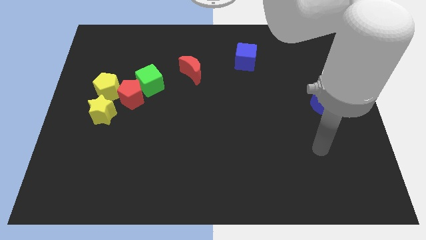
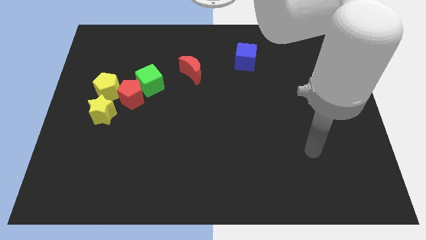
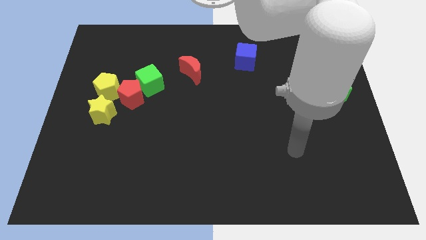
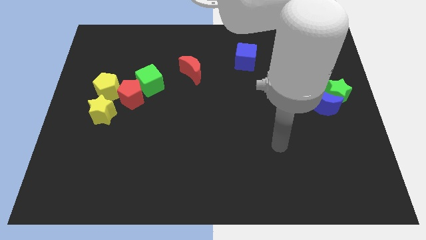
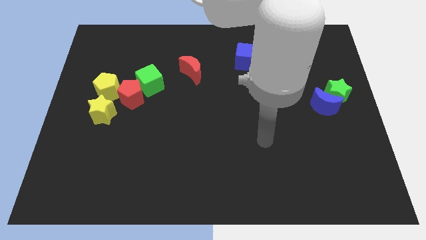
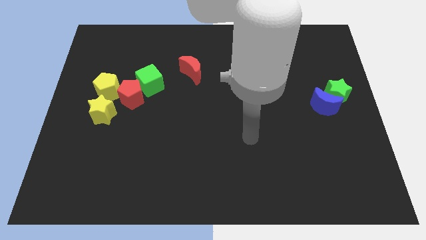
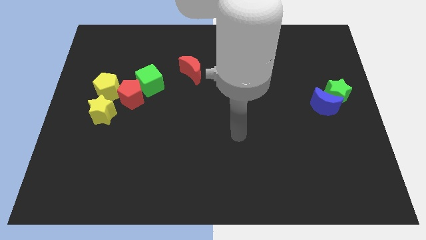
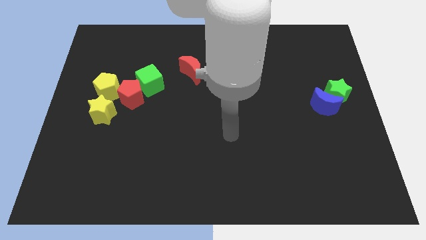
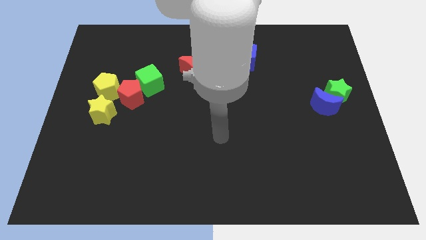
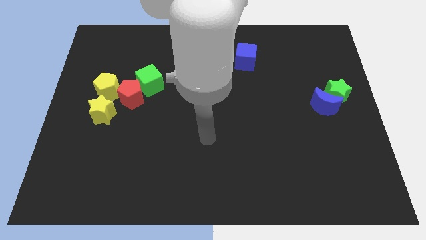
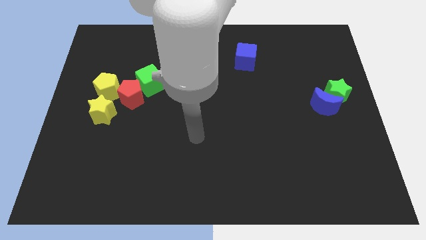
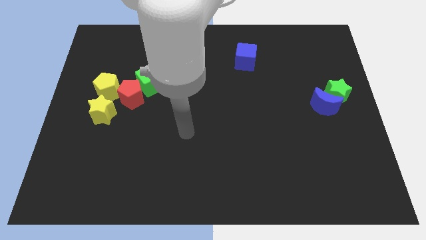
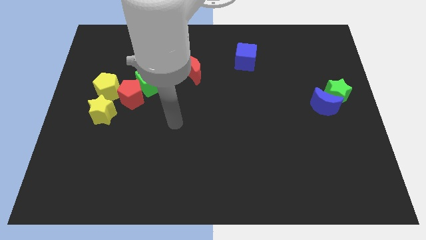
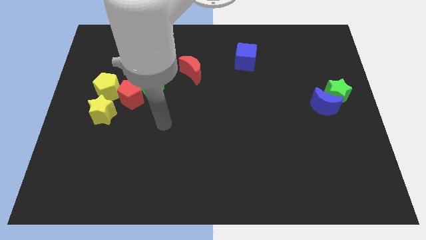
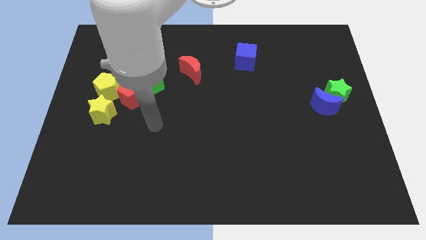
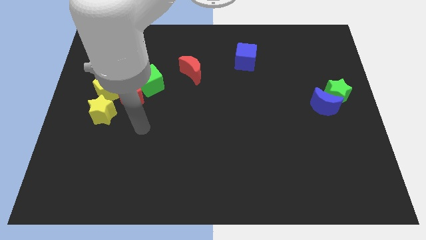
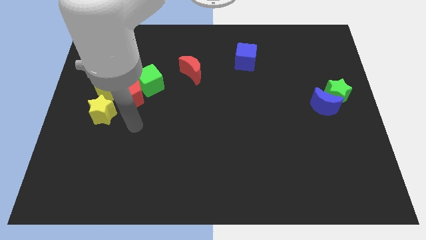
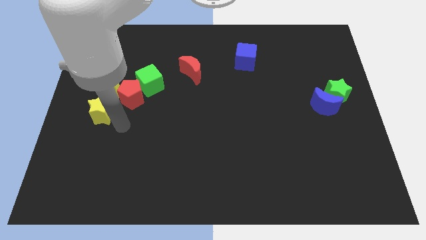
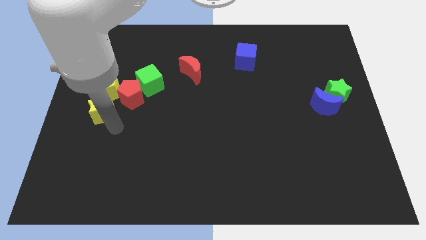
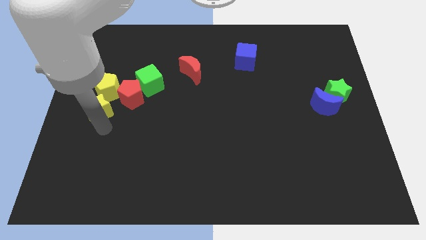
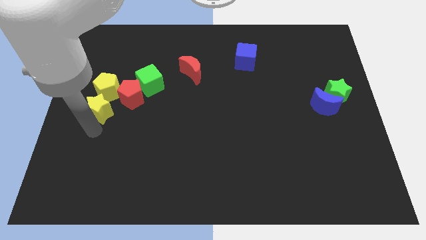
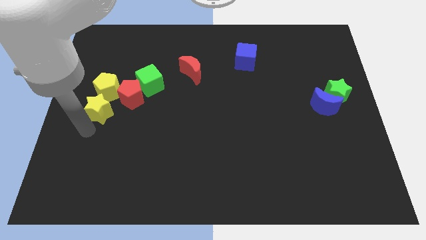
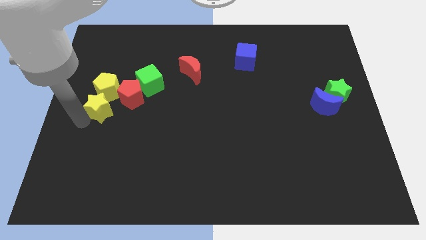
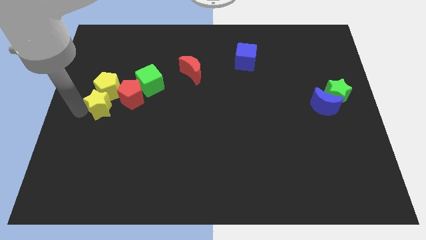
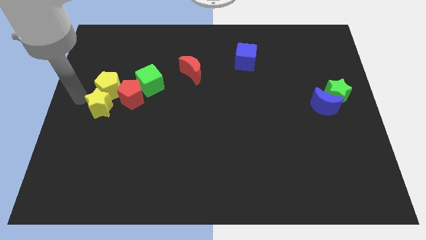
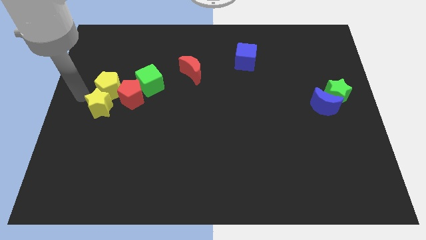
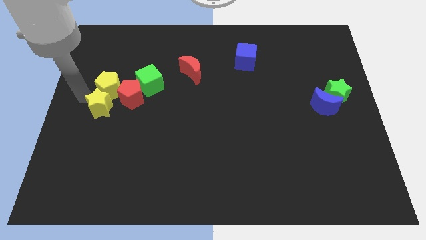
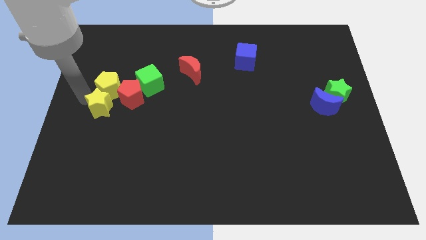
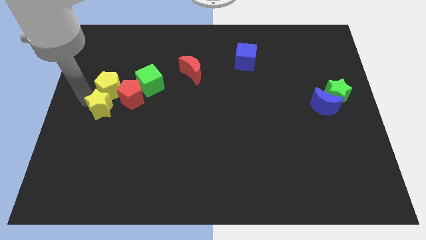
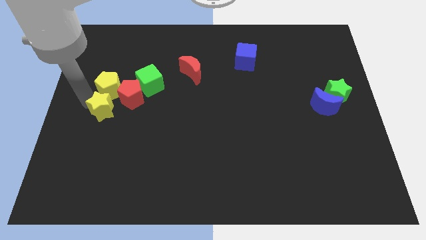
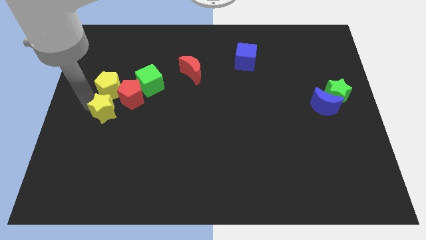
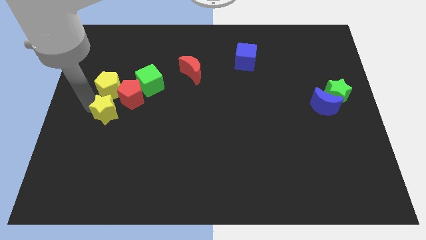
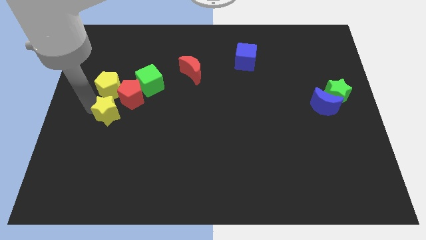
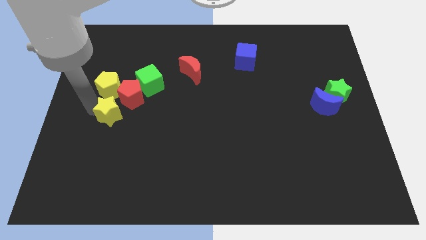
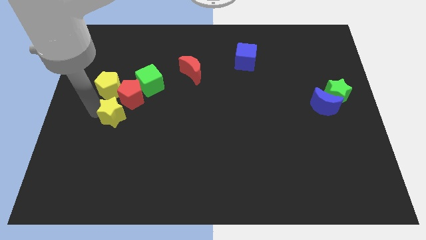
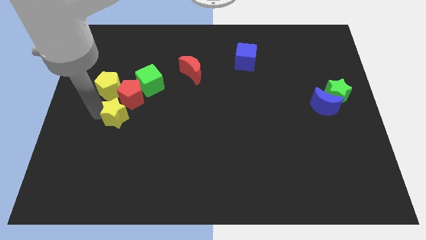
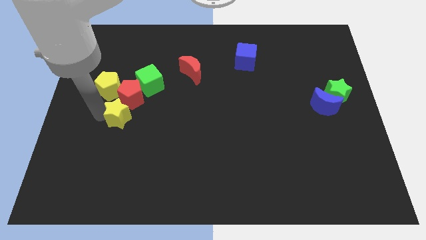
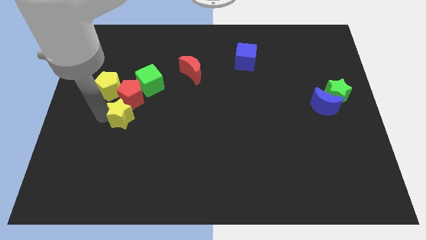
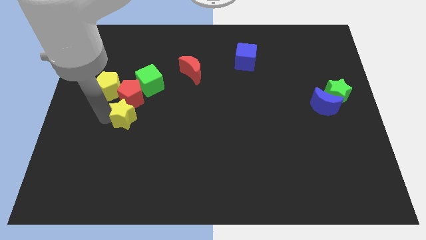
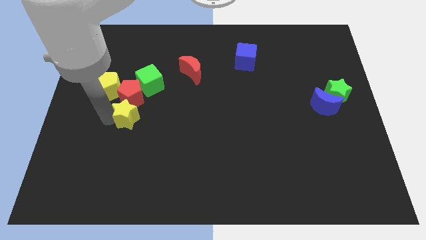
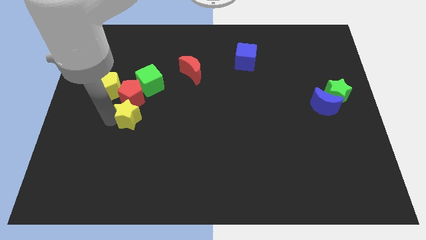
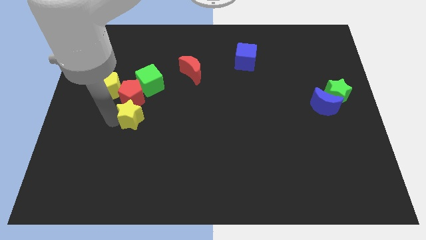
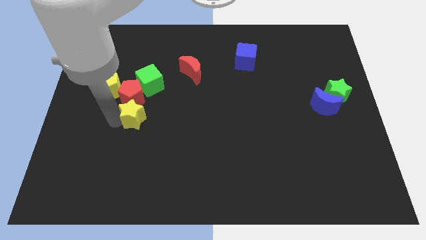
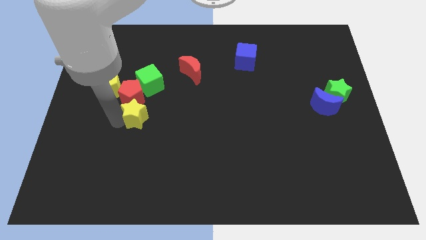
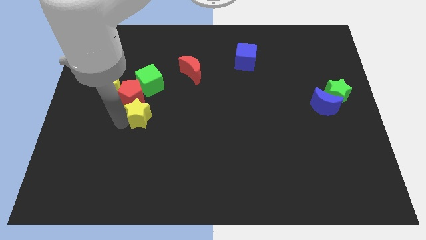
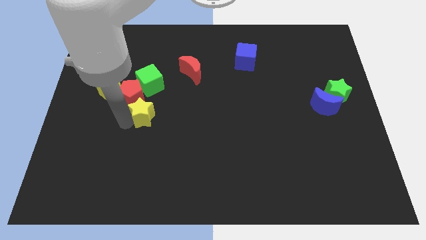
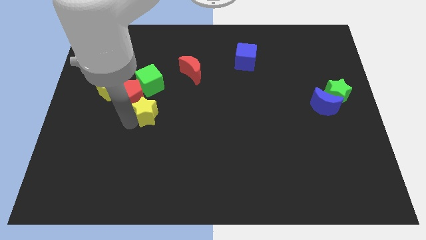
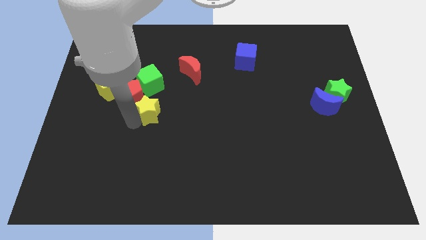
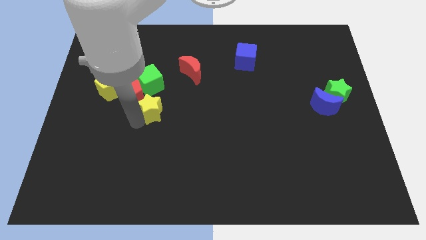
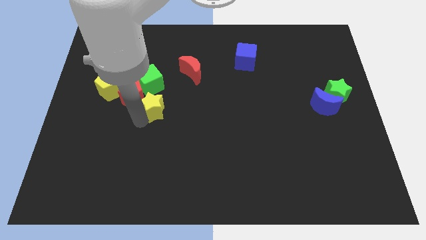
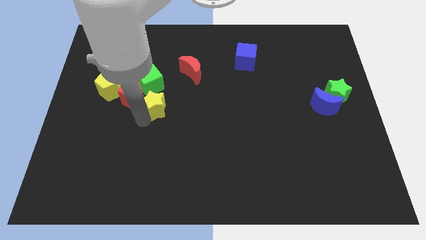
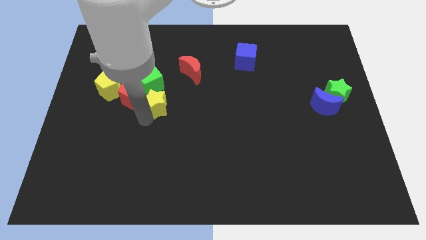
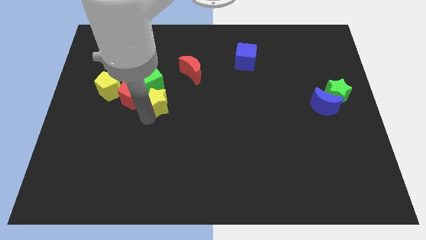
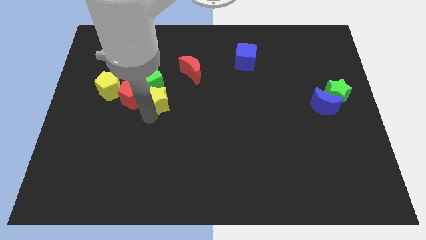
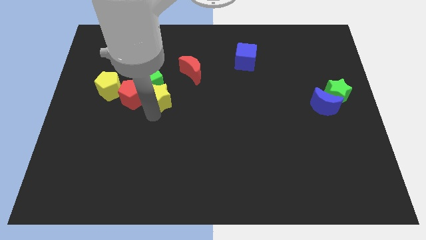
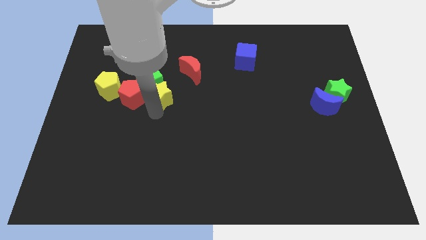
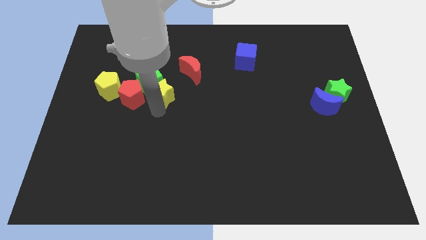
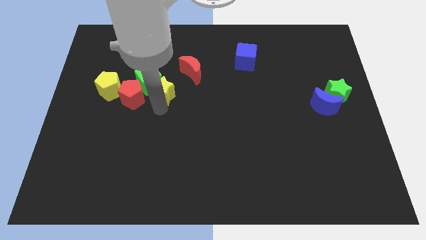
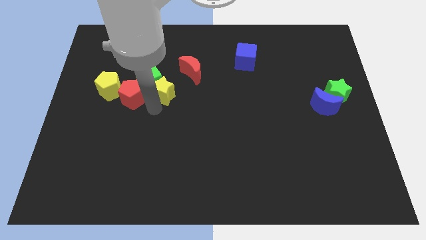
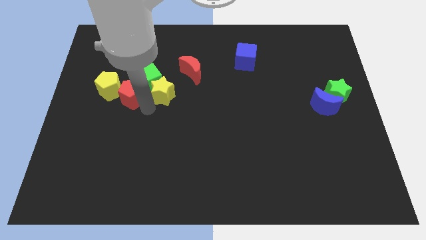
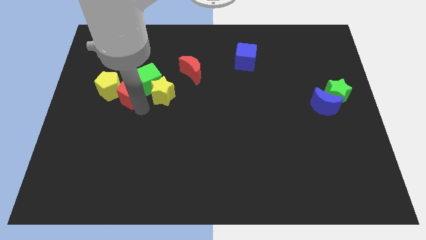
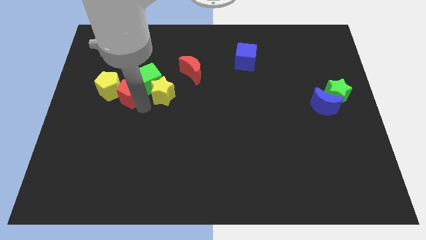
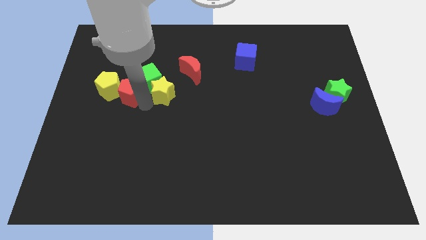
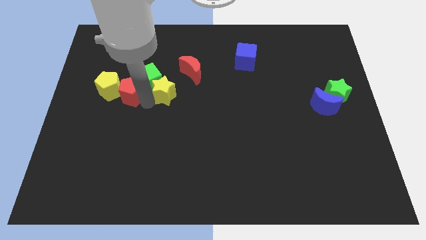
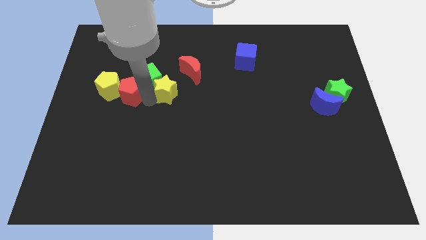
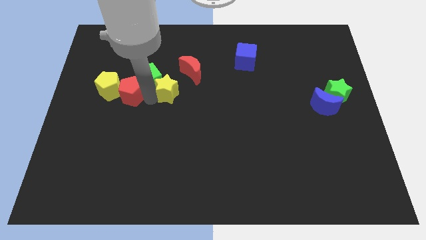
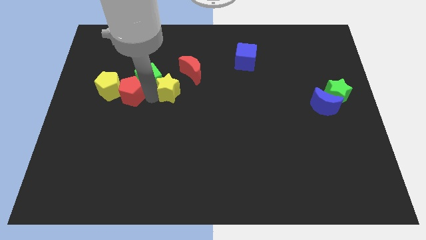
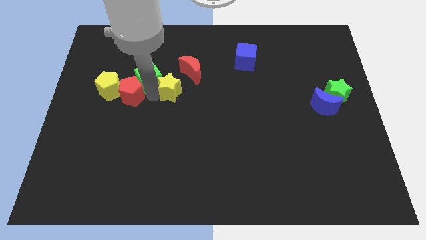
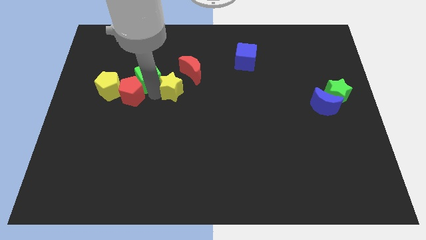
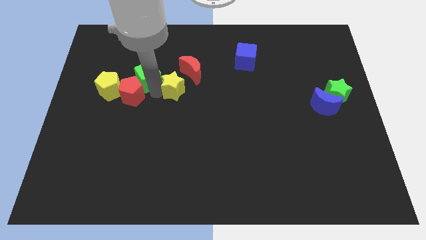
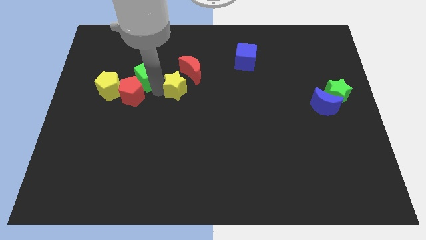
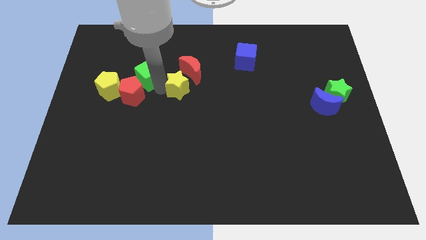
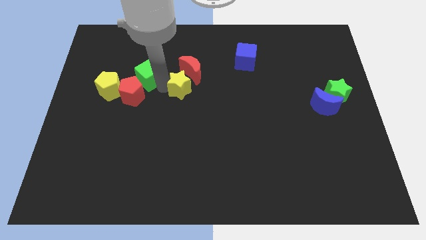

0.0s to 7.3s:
slide the yellow star to the red moon

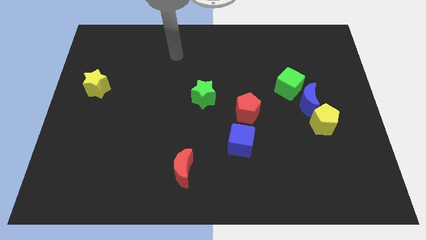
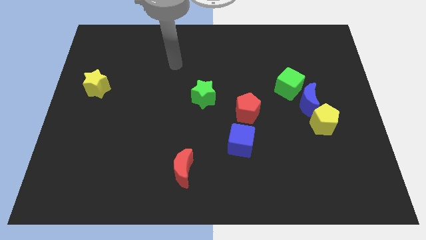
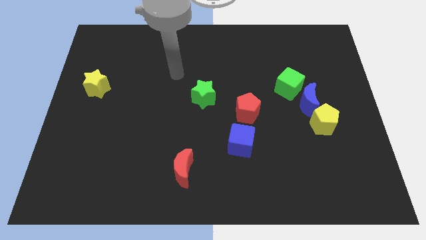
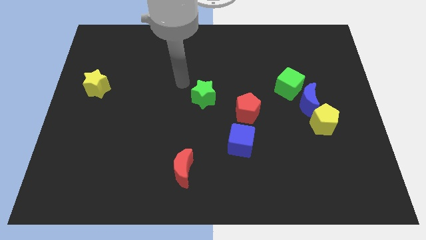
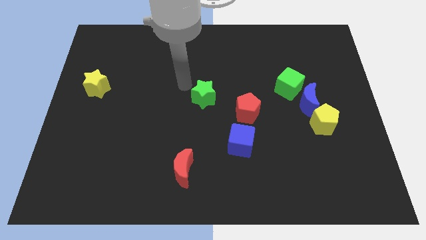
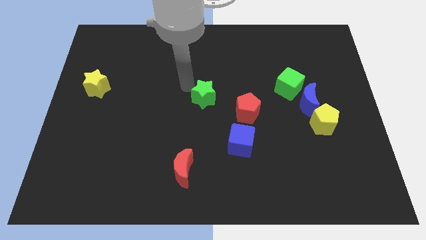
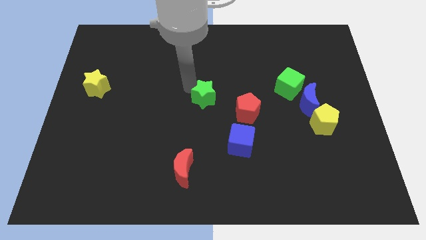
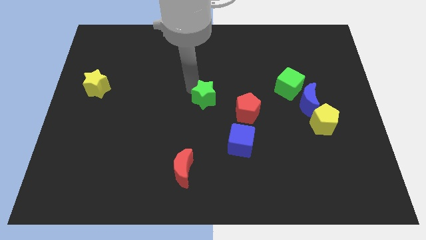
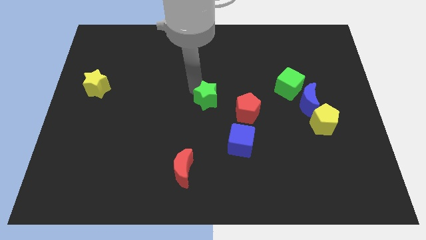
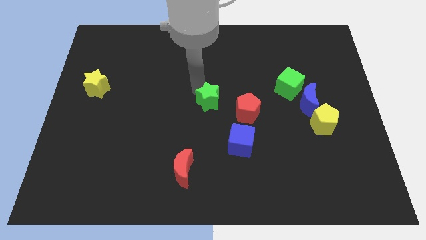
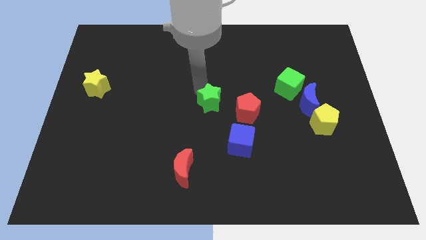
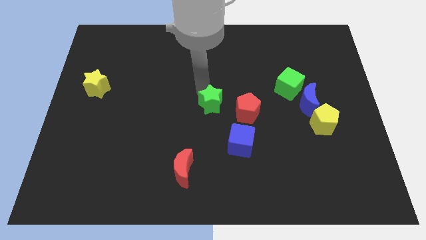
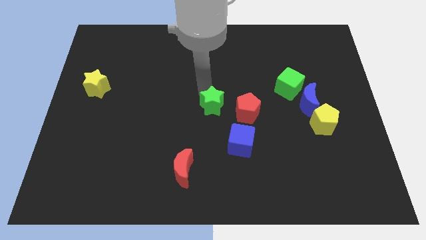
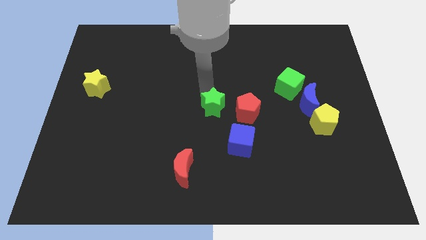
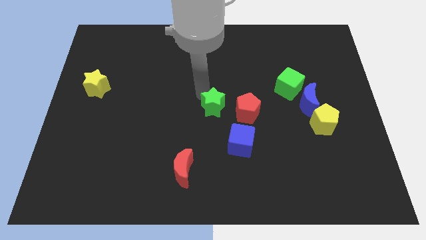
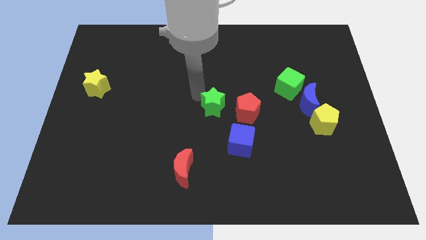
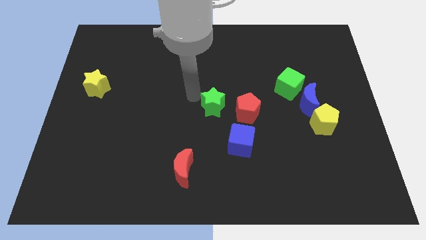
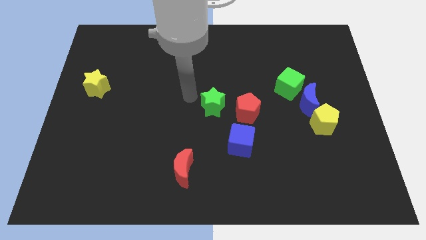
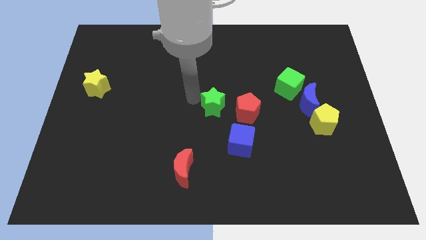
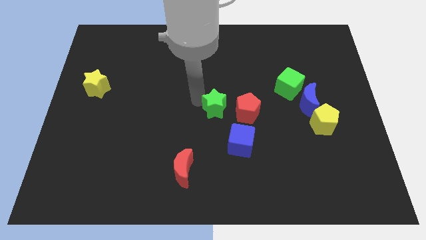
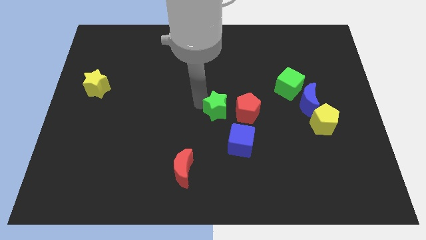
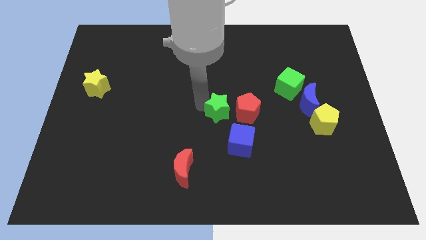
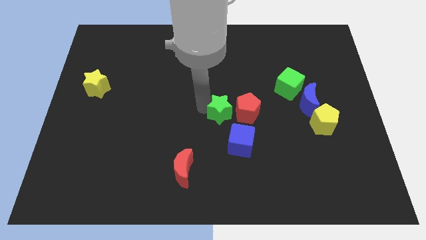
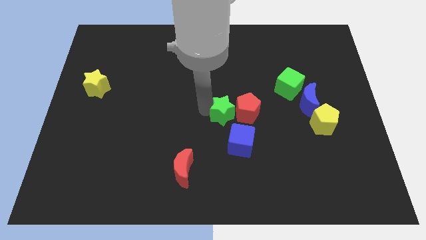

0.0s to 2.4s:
slide the green star next to the red pentagon
